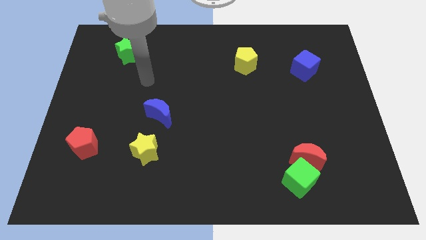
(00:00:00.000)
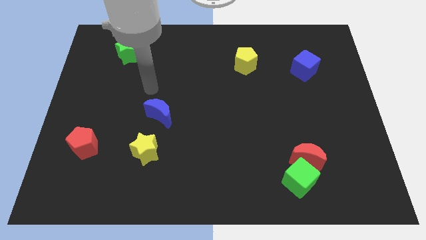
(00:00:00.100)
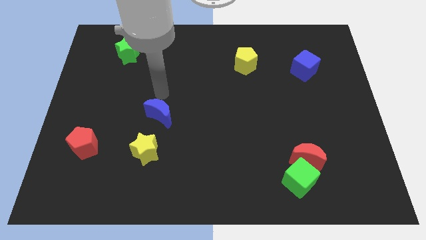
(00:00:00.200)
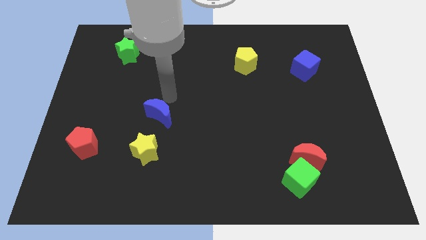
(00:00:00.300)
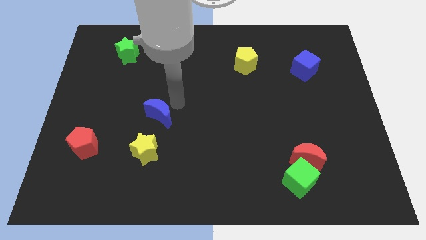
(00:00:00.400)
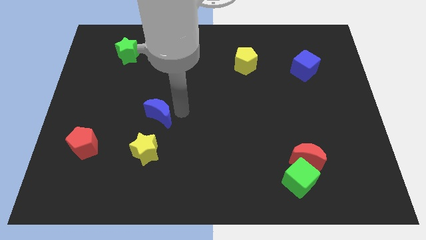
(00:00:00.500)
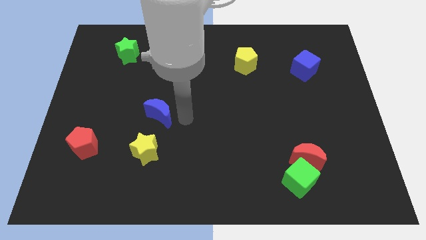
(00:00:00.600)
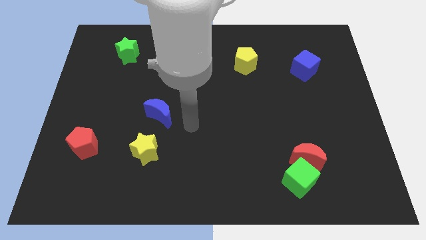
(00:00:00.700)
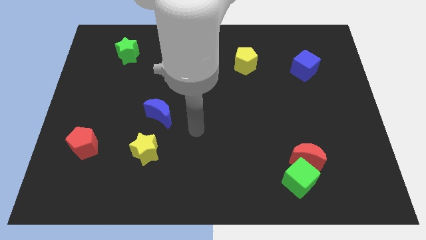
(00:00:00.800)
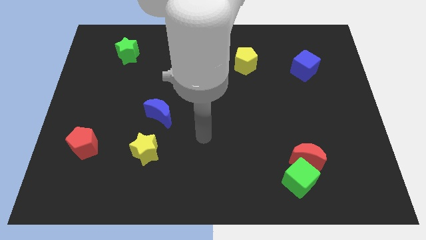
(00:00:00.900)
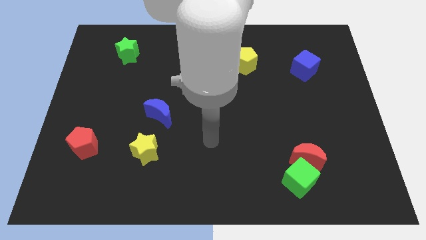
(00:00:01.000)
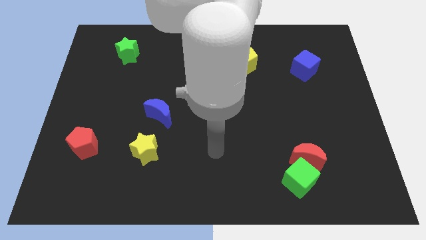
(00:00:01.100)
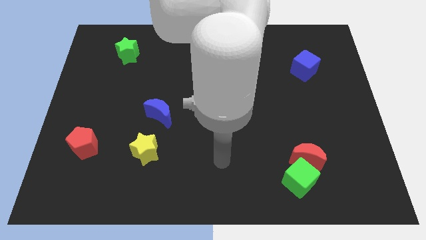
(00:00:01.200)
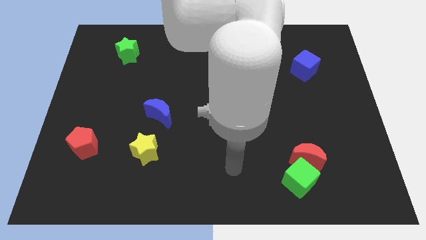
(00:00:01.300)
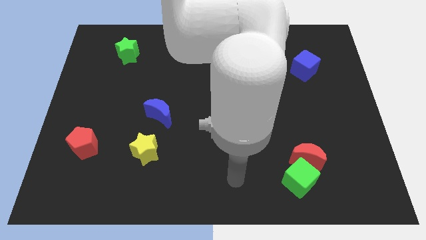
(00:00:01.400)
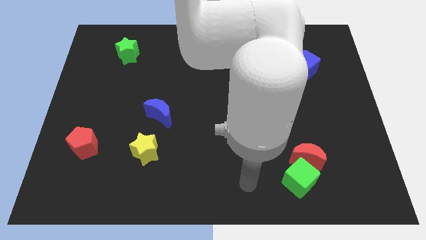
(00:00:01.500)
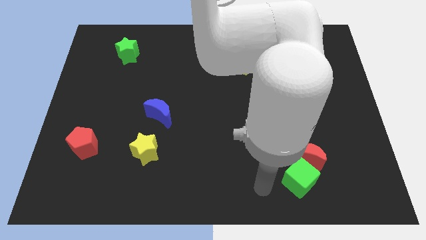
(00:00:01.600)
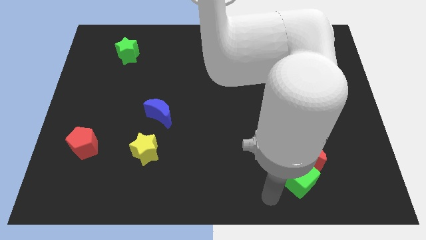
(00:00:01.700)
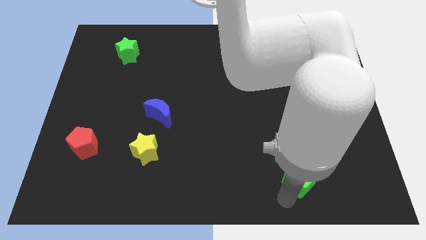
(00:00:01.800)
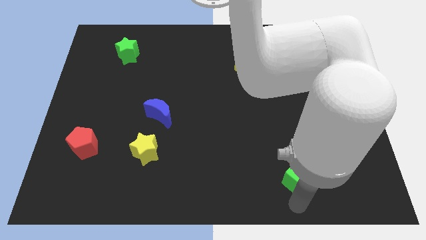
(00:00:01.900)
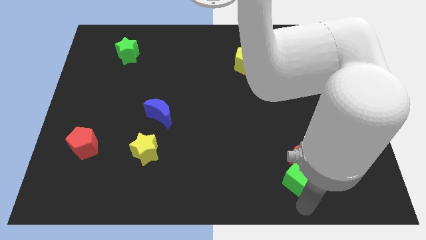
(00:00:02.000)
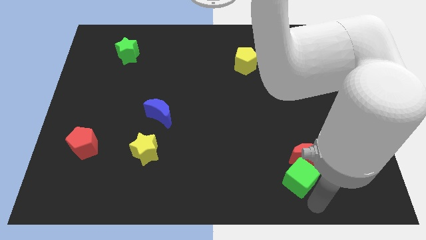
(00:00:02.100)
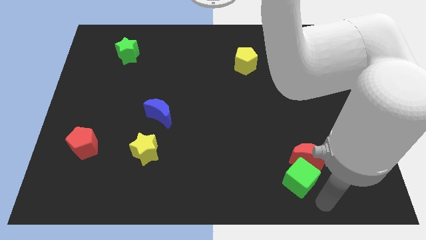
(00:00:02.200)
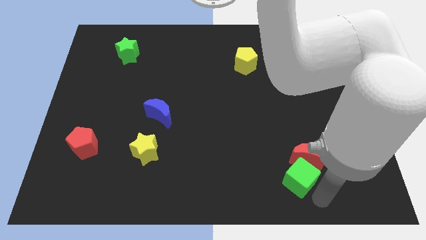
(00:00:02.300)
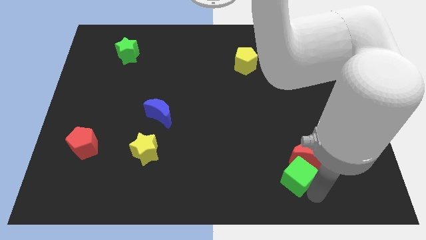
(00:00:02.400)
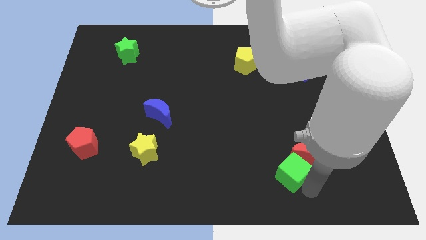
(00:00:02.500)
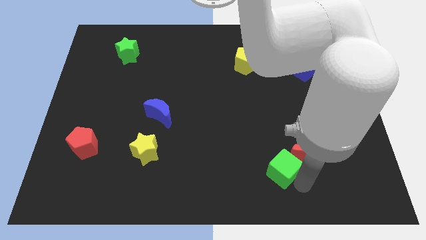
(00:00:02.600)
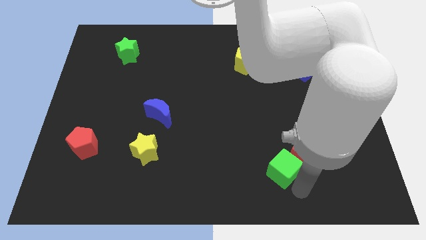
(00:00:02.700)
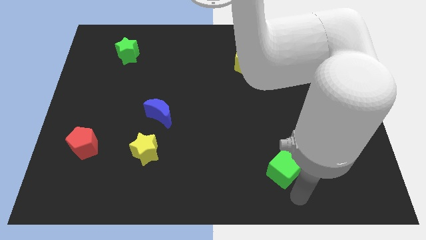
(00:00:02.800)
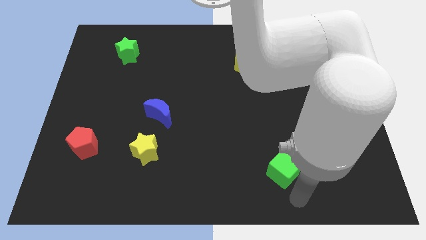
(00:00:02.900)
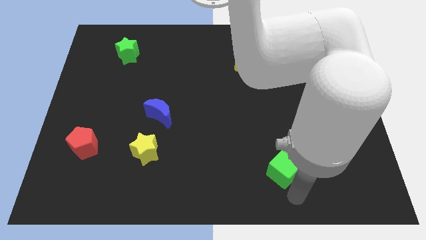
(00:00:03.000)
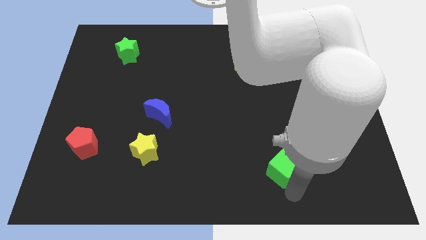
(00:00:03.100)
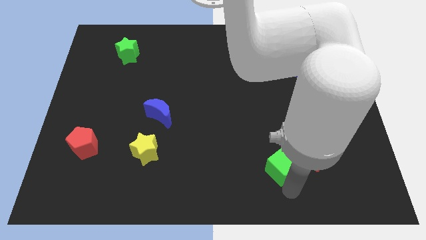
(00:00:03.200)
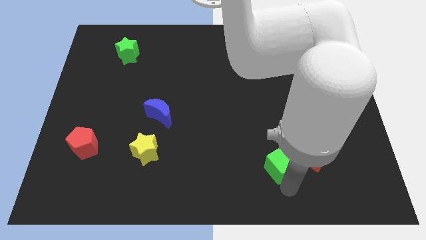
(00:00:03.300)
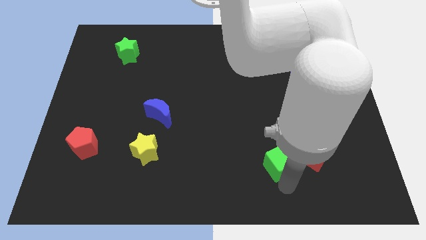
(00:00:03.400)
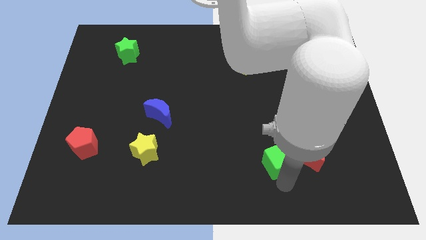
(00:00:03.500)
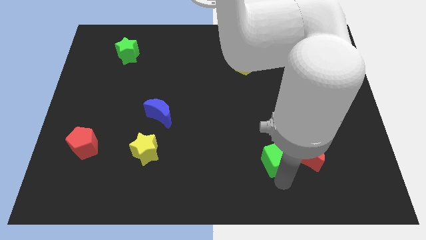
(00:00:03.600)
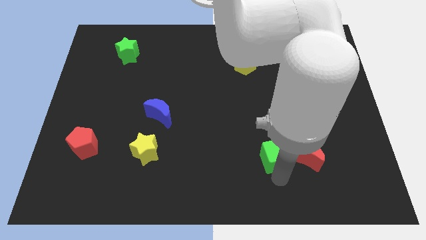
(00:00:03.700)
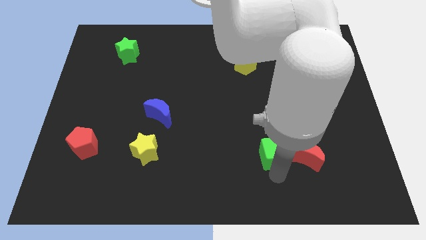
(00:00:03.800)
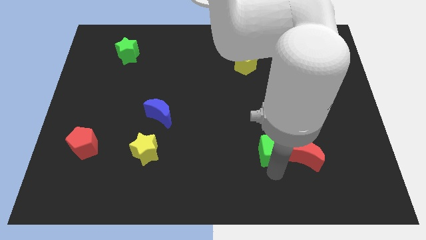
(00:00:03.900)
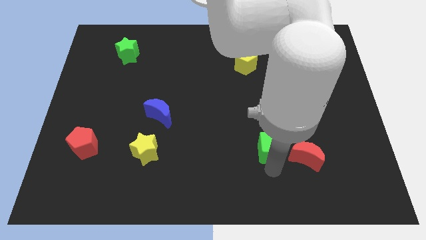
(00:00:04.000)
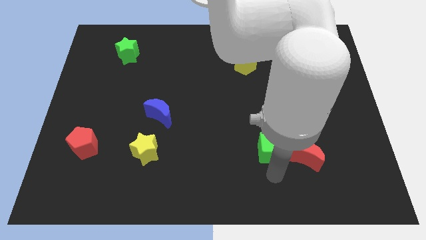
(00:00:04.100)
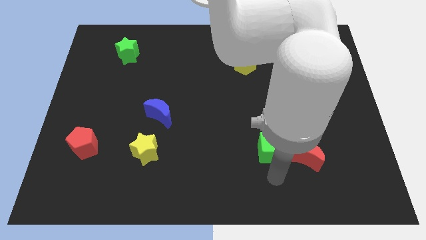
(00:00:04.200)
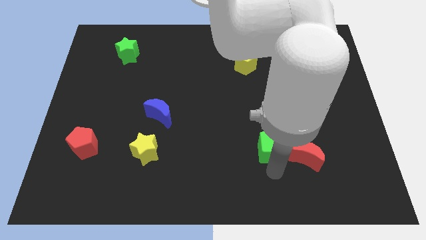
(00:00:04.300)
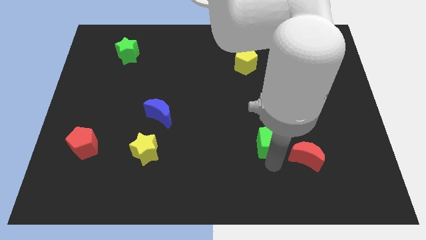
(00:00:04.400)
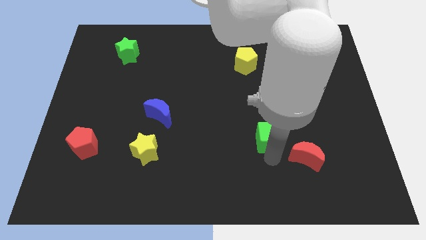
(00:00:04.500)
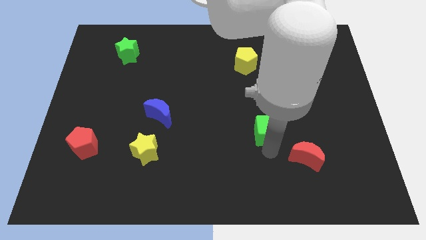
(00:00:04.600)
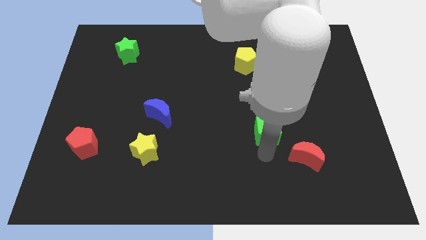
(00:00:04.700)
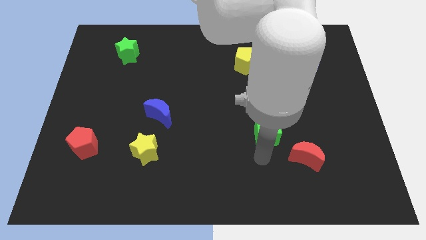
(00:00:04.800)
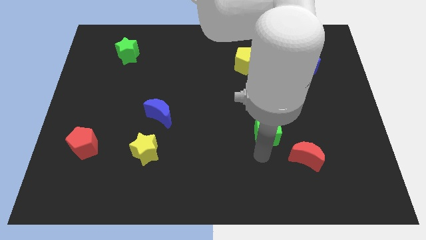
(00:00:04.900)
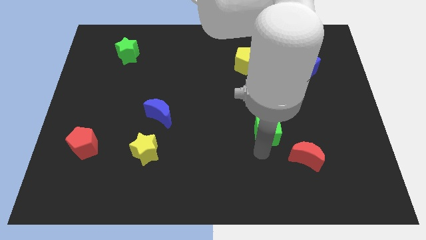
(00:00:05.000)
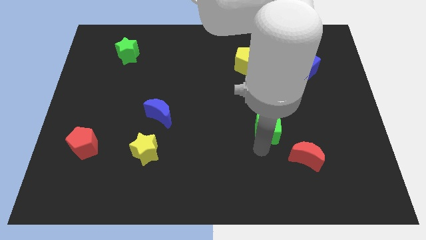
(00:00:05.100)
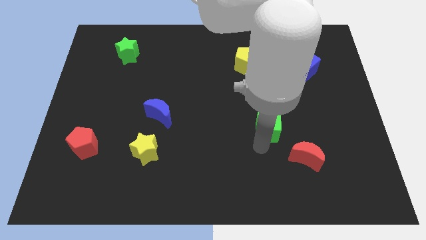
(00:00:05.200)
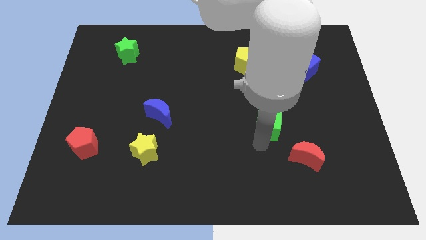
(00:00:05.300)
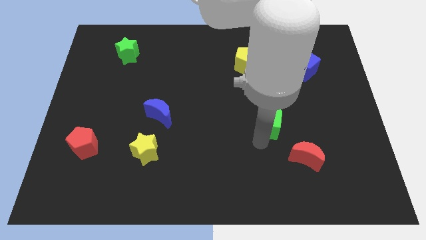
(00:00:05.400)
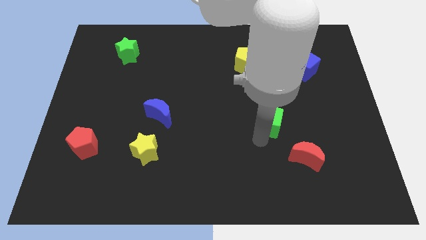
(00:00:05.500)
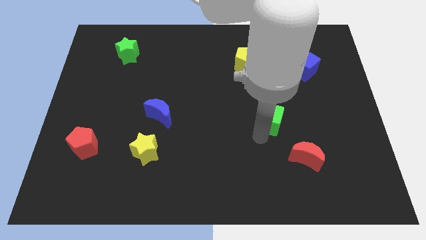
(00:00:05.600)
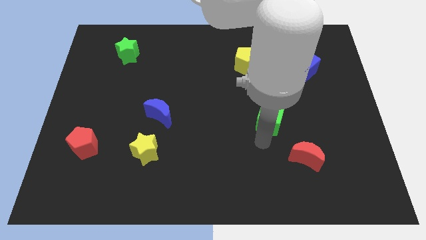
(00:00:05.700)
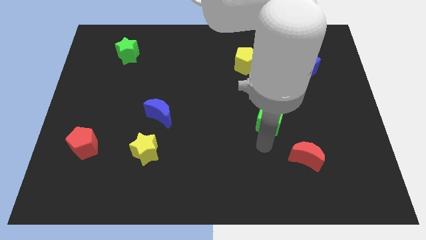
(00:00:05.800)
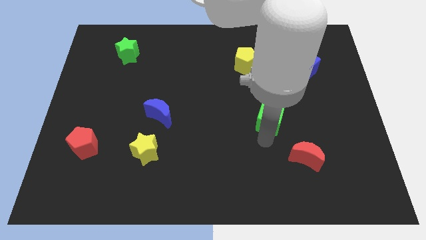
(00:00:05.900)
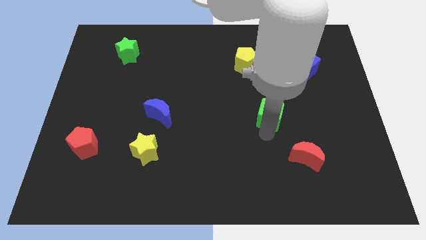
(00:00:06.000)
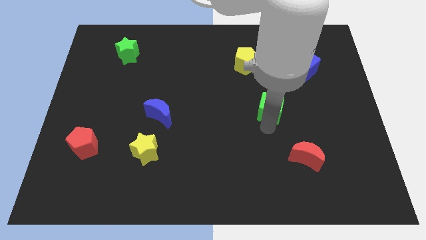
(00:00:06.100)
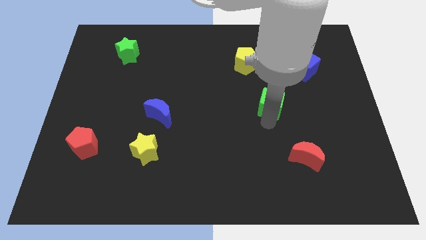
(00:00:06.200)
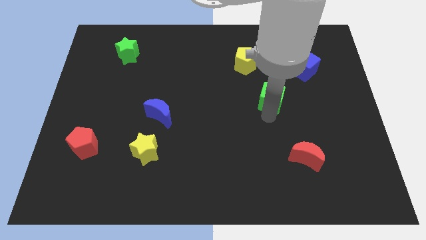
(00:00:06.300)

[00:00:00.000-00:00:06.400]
push the green cube upwards

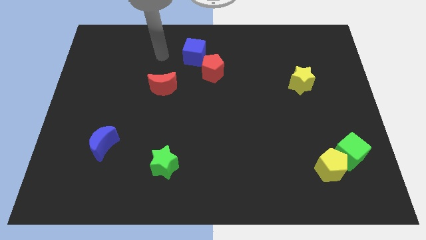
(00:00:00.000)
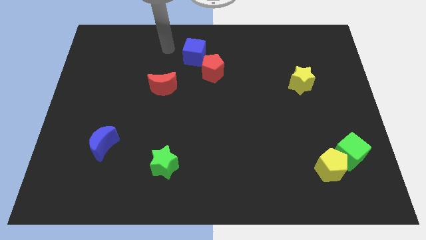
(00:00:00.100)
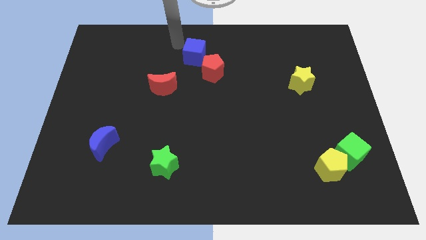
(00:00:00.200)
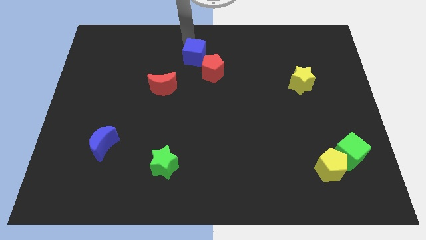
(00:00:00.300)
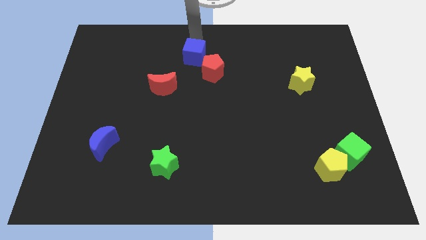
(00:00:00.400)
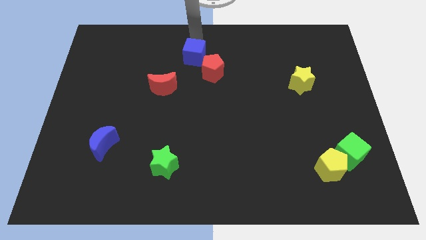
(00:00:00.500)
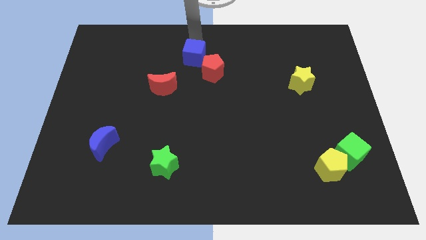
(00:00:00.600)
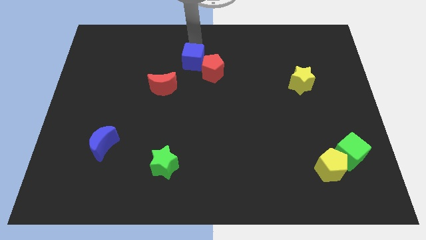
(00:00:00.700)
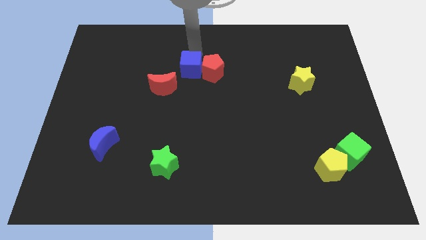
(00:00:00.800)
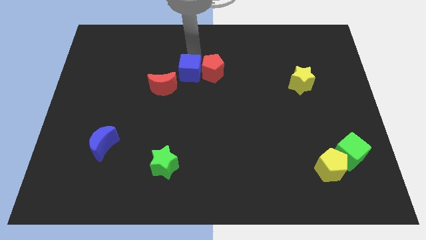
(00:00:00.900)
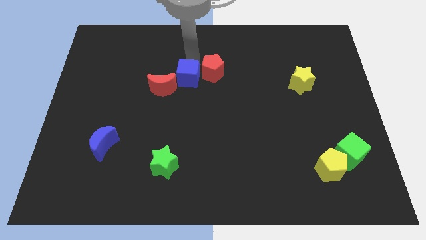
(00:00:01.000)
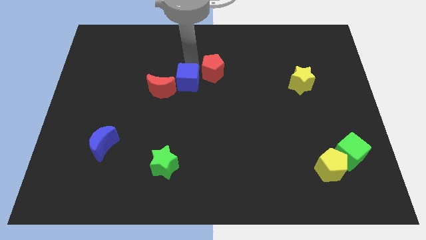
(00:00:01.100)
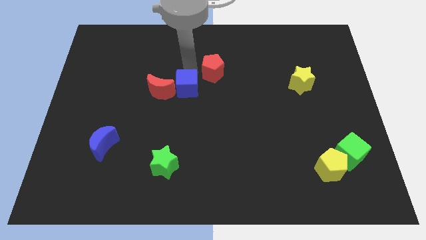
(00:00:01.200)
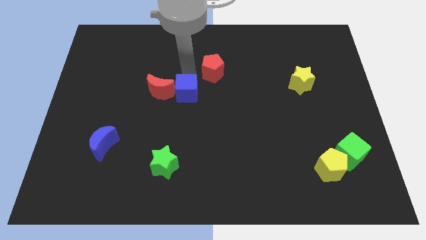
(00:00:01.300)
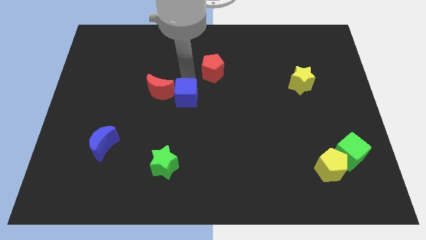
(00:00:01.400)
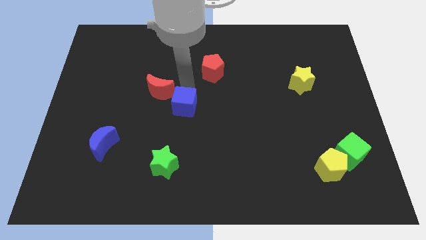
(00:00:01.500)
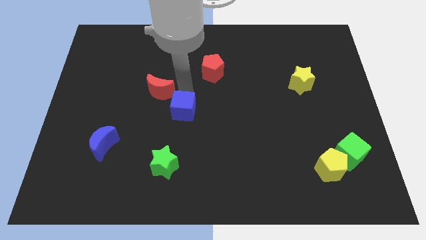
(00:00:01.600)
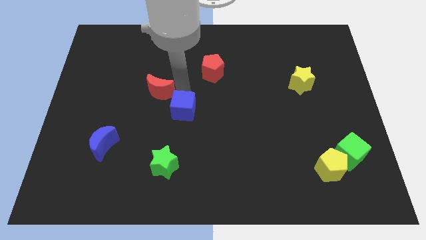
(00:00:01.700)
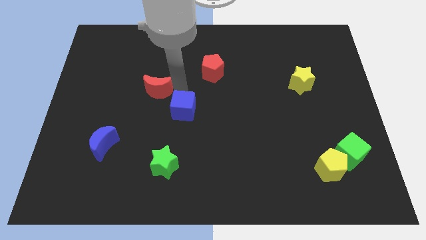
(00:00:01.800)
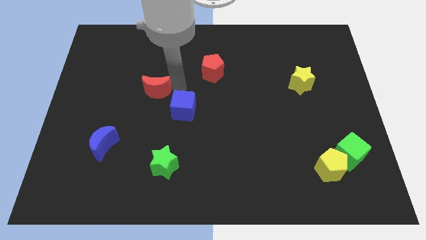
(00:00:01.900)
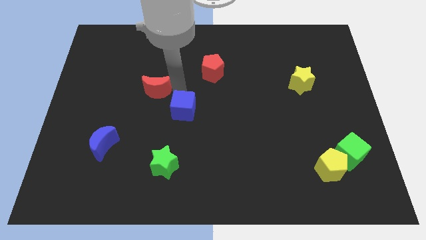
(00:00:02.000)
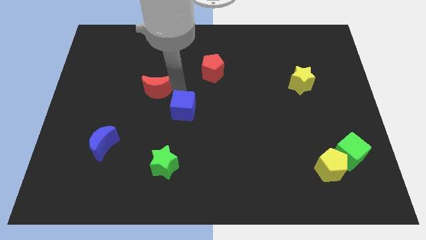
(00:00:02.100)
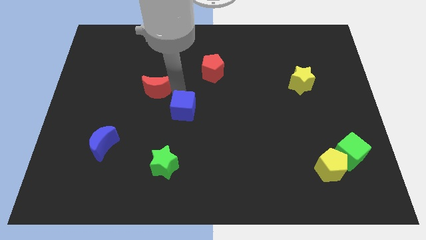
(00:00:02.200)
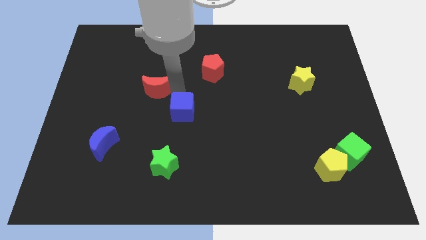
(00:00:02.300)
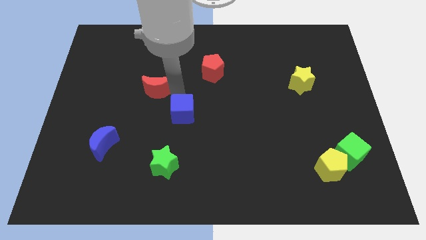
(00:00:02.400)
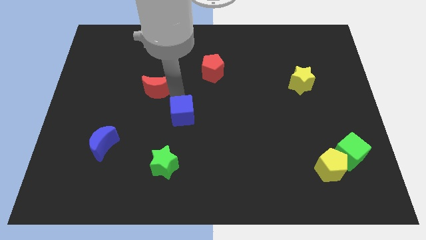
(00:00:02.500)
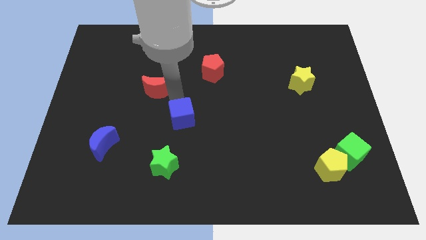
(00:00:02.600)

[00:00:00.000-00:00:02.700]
move the blue cube downwards
